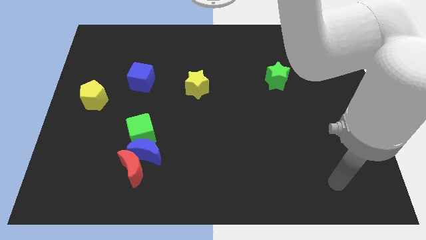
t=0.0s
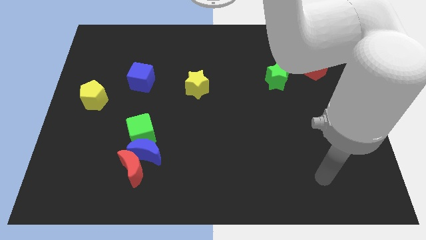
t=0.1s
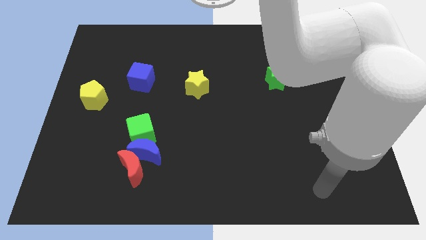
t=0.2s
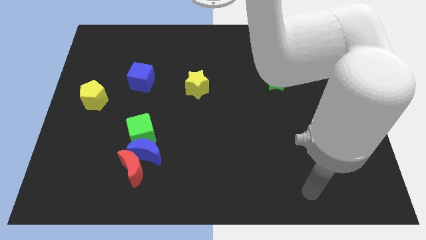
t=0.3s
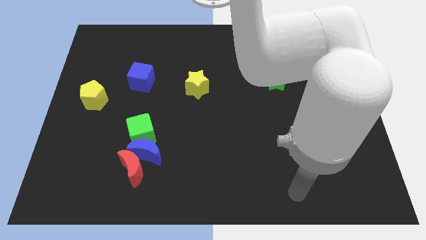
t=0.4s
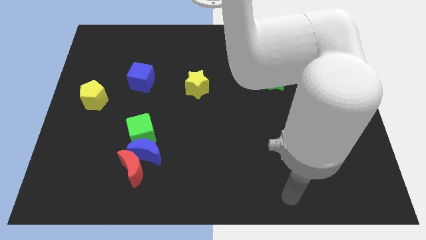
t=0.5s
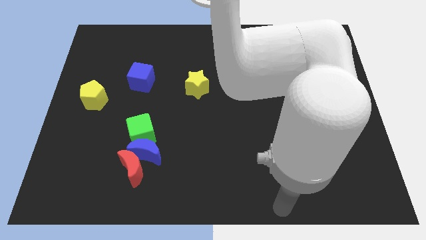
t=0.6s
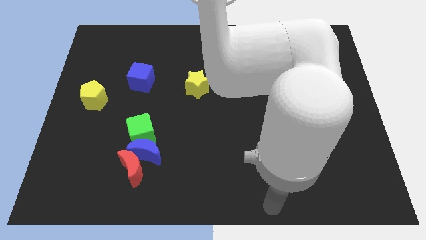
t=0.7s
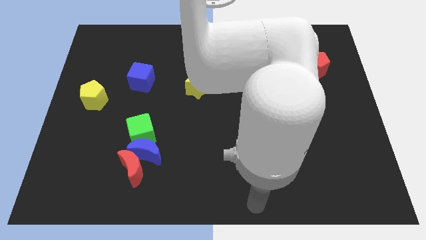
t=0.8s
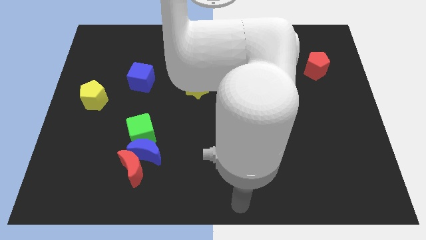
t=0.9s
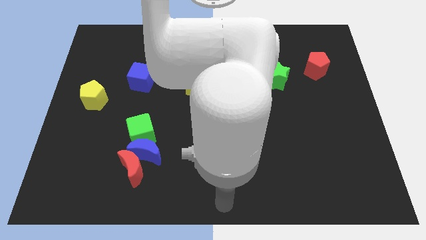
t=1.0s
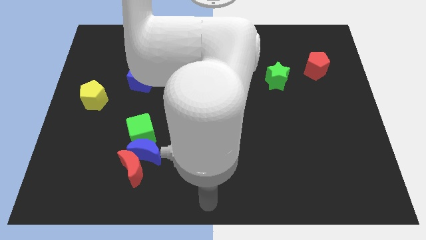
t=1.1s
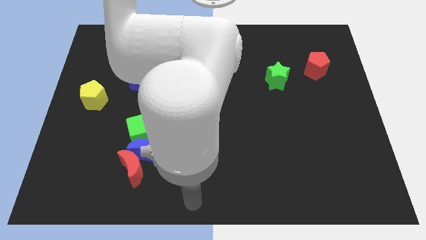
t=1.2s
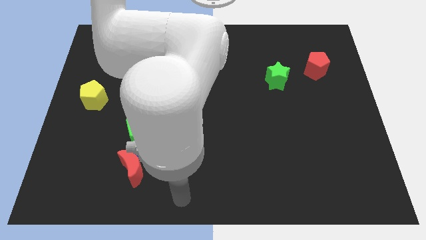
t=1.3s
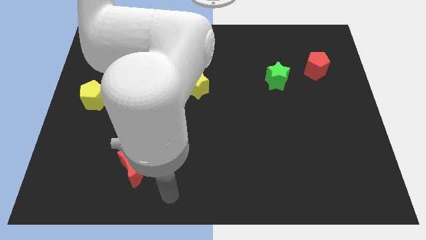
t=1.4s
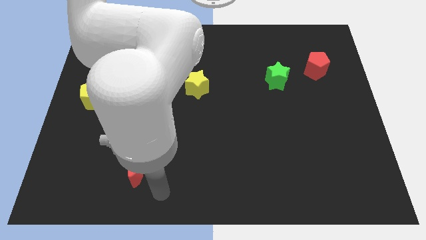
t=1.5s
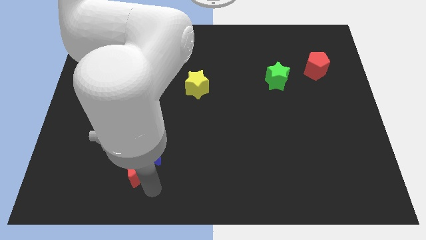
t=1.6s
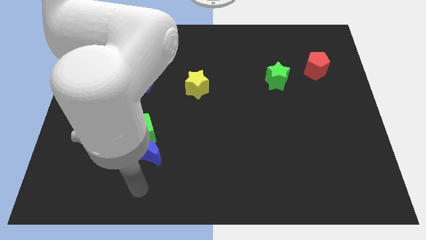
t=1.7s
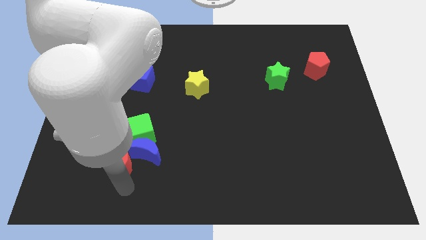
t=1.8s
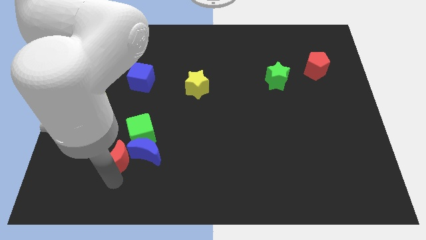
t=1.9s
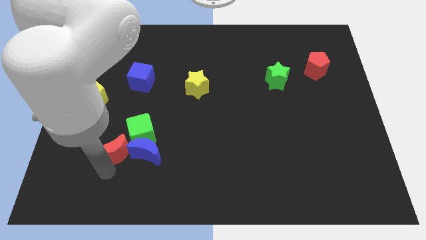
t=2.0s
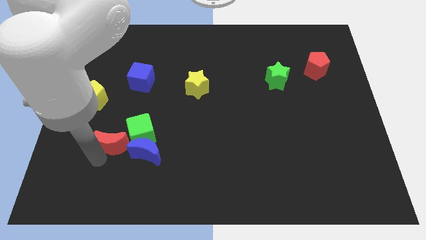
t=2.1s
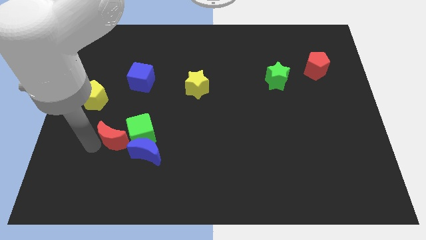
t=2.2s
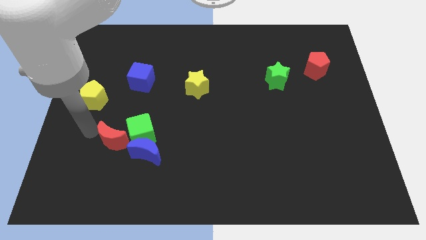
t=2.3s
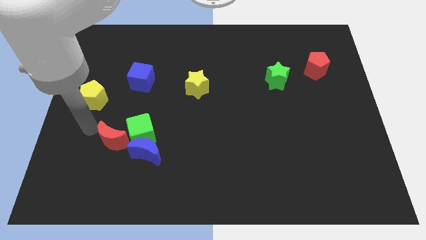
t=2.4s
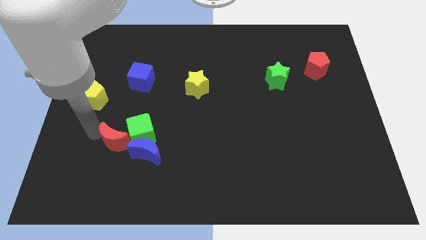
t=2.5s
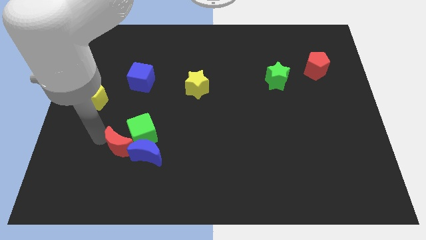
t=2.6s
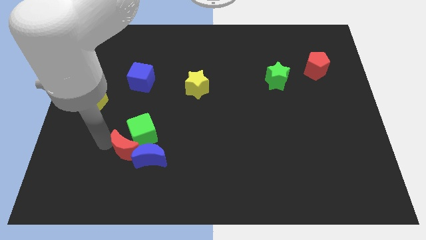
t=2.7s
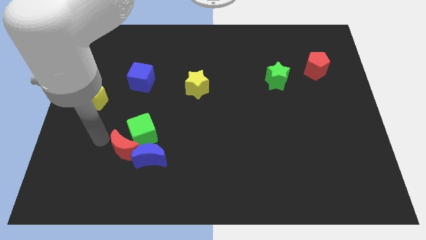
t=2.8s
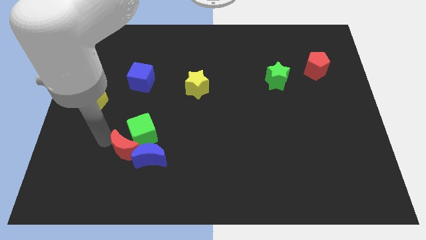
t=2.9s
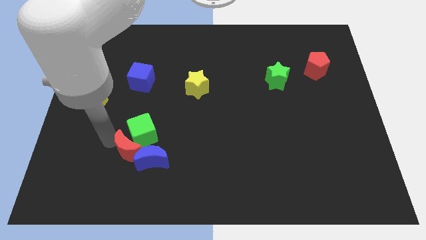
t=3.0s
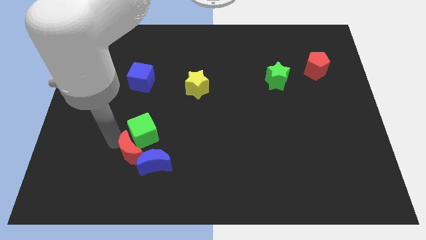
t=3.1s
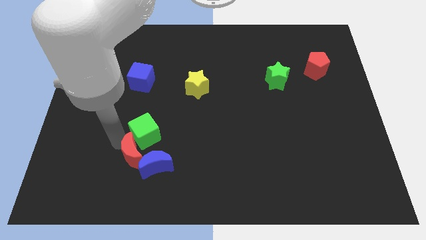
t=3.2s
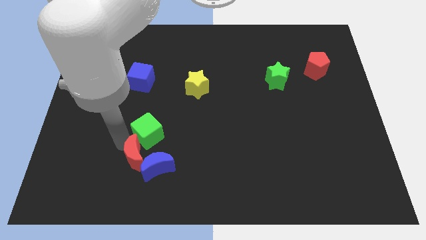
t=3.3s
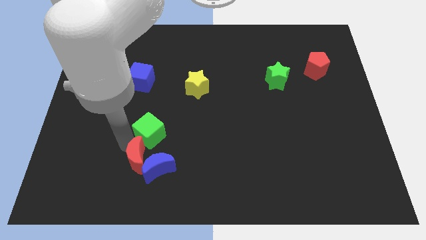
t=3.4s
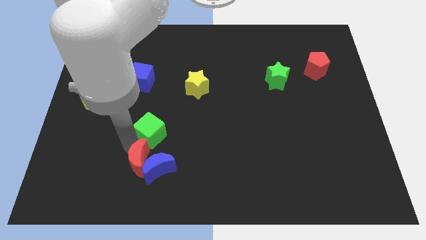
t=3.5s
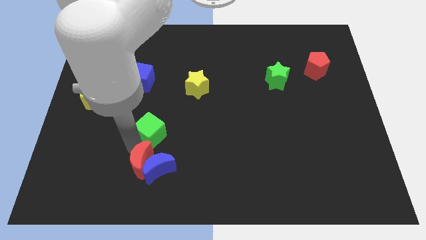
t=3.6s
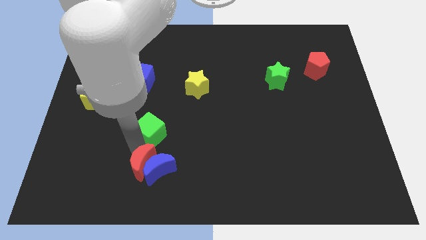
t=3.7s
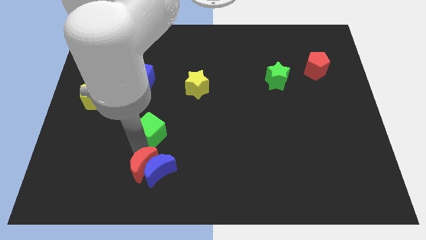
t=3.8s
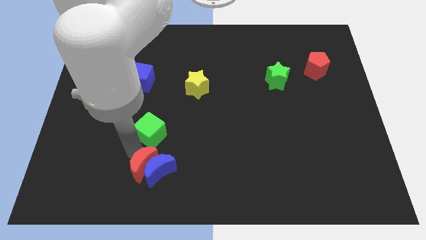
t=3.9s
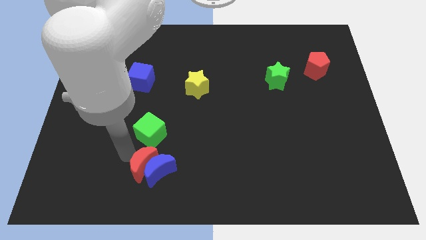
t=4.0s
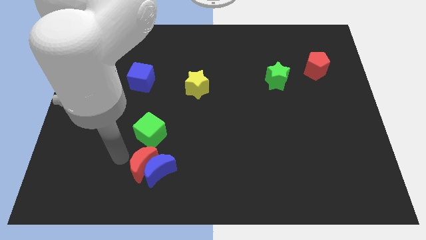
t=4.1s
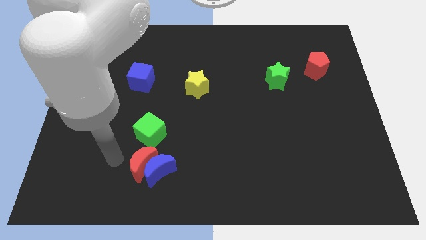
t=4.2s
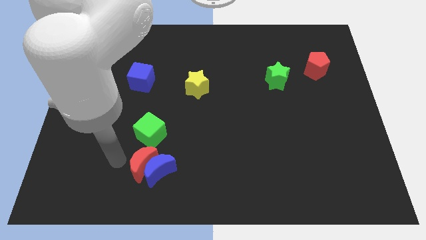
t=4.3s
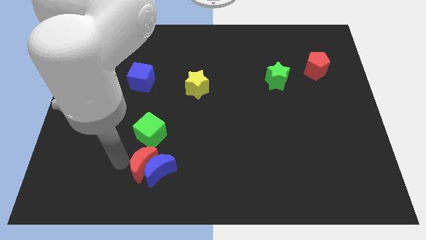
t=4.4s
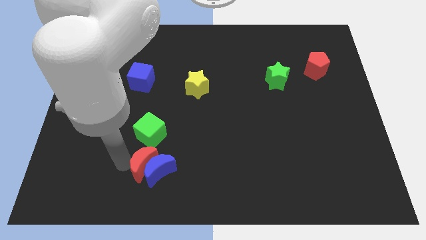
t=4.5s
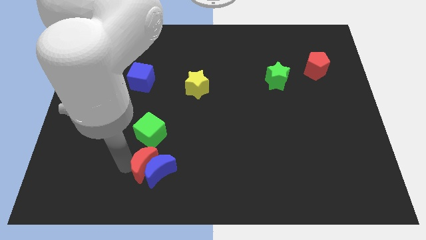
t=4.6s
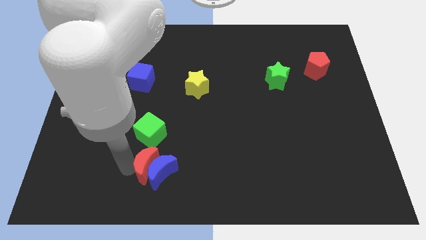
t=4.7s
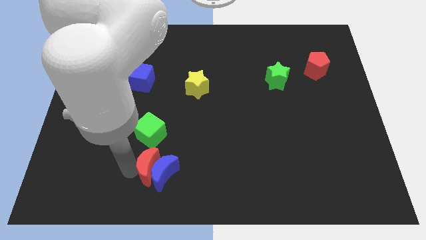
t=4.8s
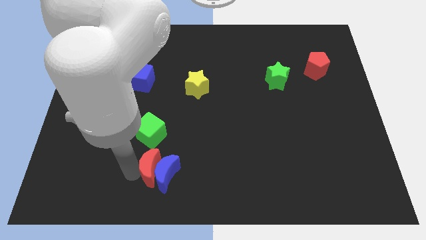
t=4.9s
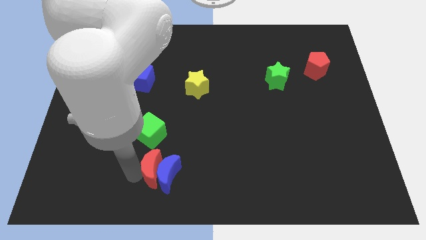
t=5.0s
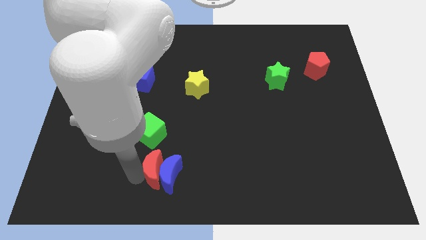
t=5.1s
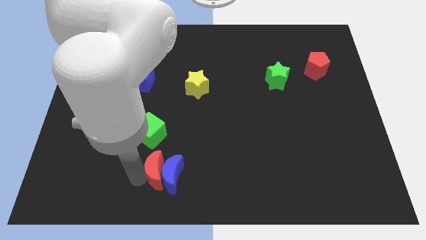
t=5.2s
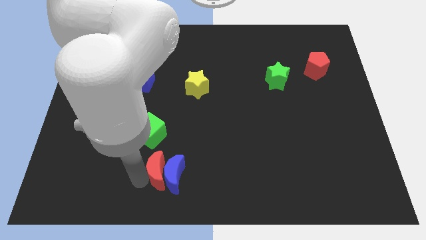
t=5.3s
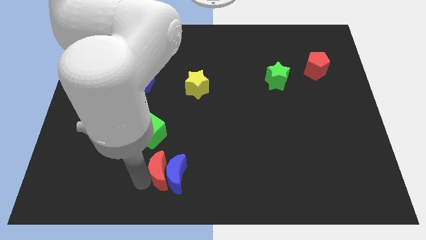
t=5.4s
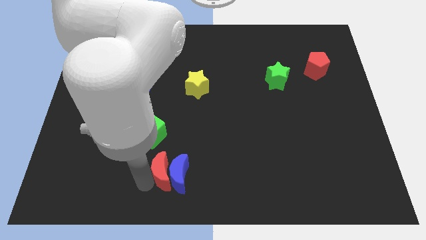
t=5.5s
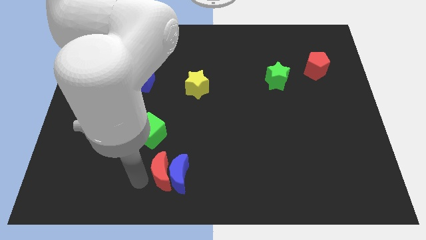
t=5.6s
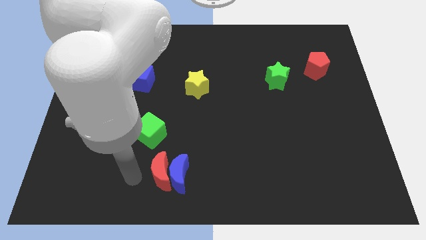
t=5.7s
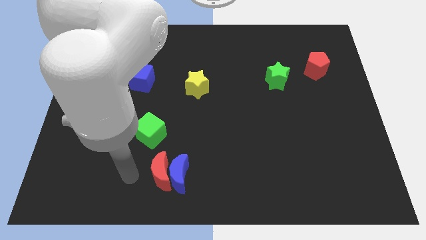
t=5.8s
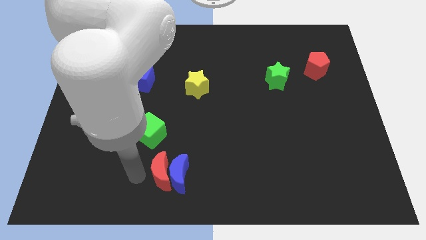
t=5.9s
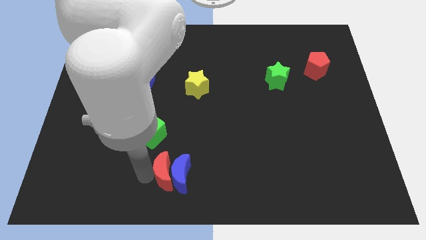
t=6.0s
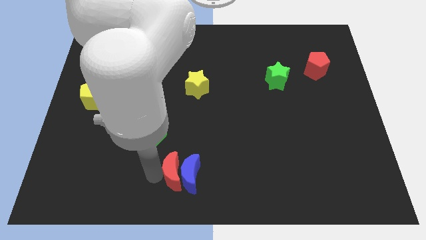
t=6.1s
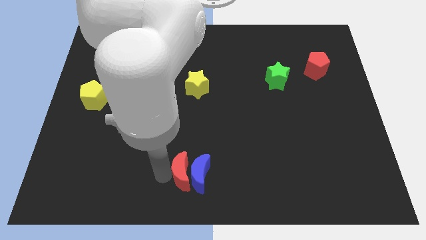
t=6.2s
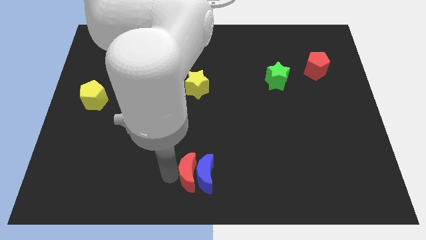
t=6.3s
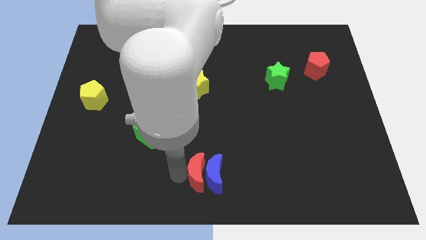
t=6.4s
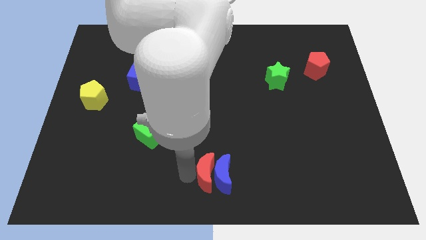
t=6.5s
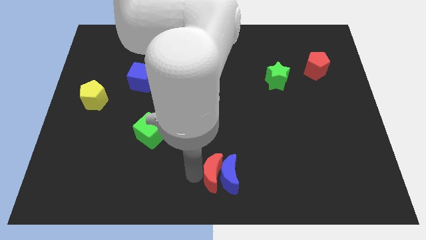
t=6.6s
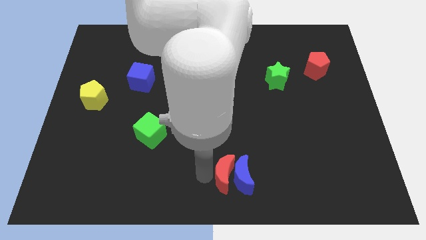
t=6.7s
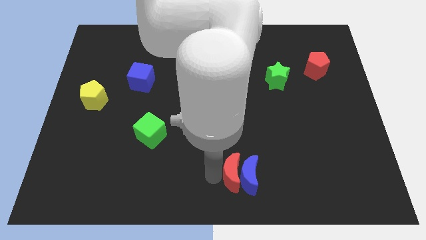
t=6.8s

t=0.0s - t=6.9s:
push the red moon to the right

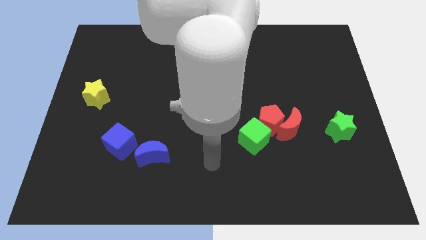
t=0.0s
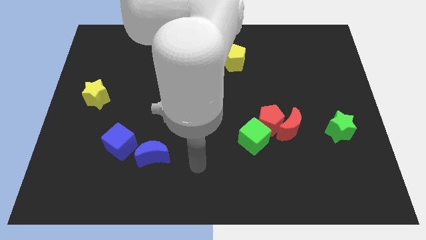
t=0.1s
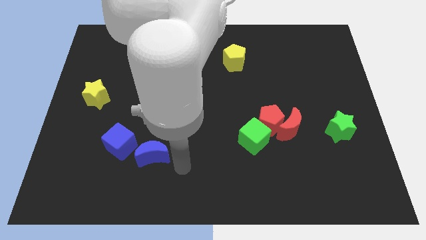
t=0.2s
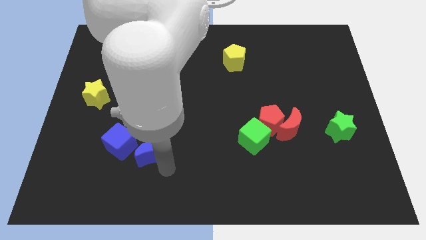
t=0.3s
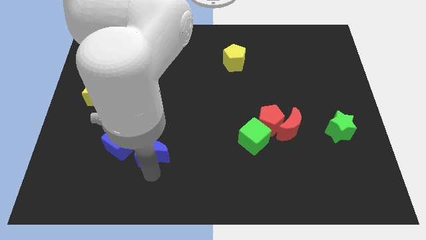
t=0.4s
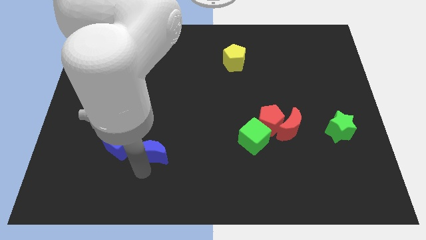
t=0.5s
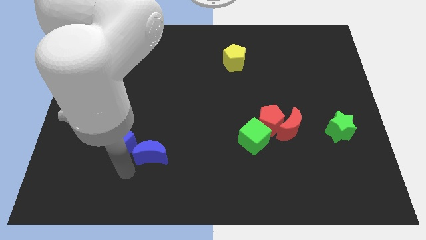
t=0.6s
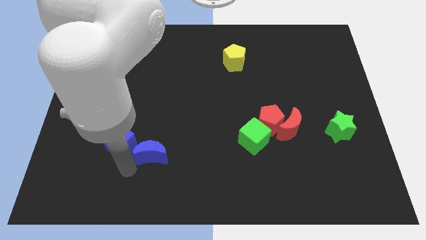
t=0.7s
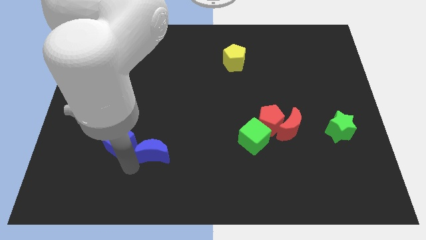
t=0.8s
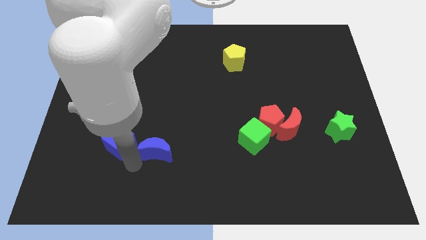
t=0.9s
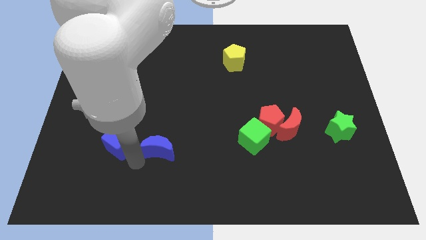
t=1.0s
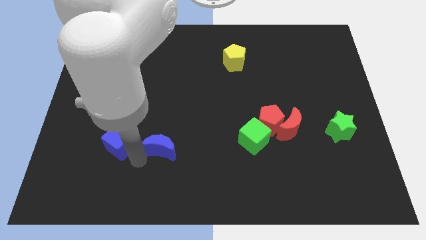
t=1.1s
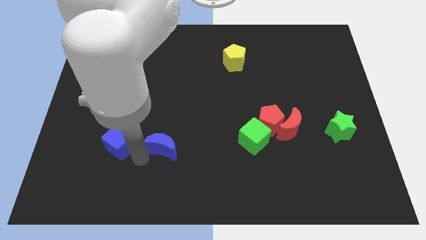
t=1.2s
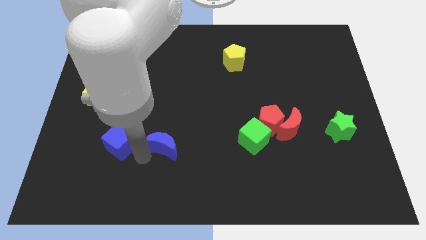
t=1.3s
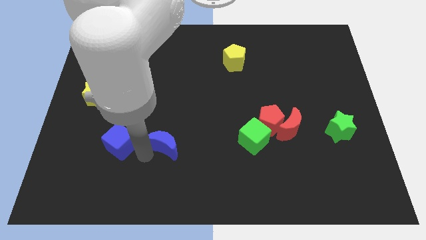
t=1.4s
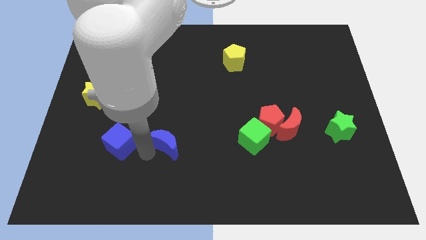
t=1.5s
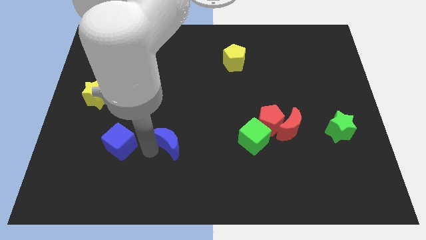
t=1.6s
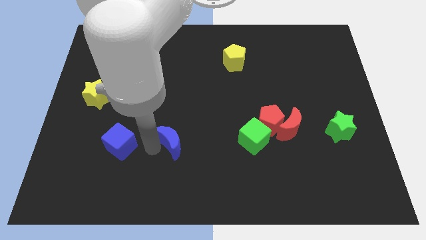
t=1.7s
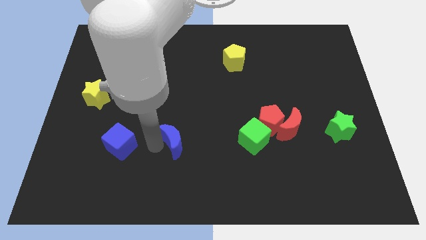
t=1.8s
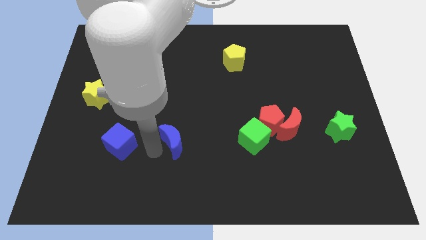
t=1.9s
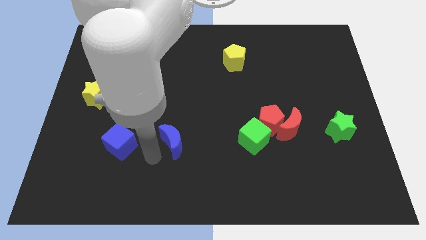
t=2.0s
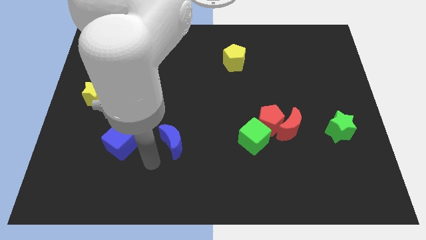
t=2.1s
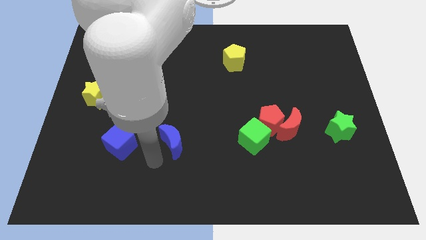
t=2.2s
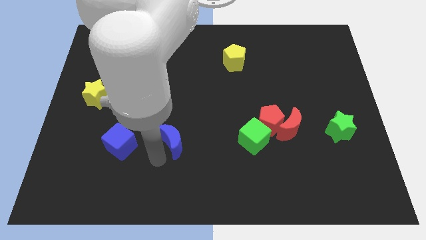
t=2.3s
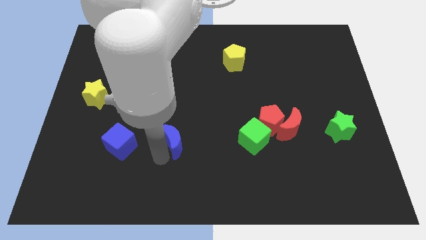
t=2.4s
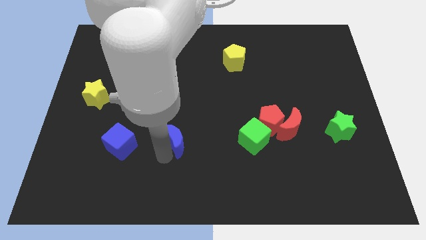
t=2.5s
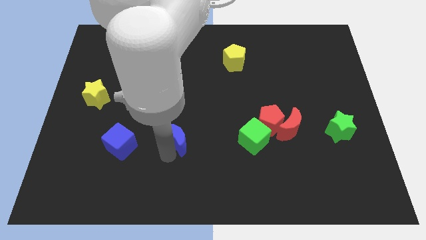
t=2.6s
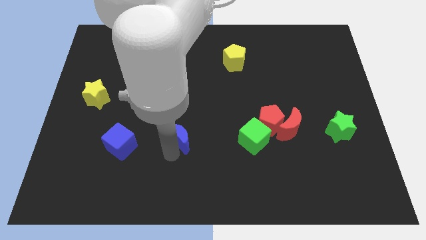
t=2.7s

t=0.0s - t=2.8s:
push the blue moon diagonally up and to the right slightly
